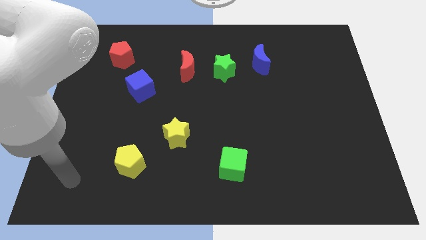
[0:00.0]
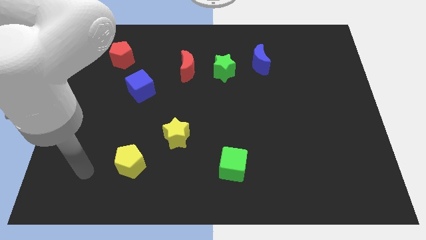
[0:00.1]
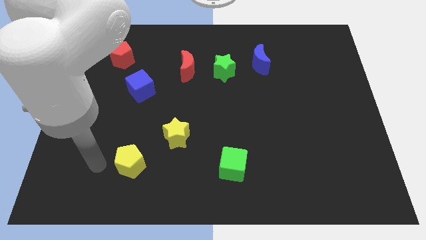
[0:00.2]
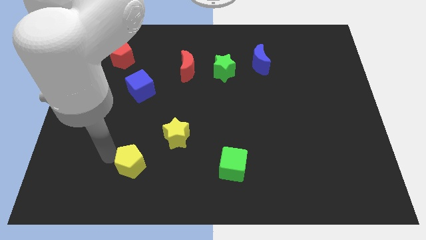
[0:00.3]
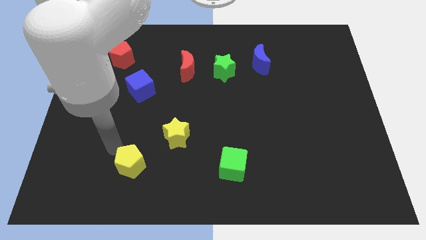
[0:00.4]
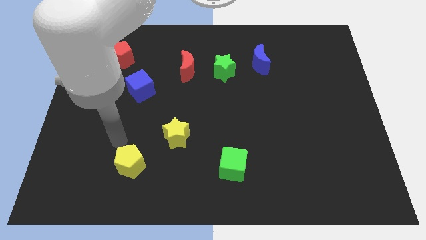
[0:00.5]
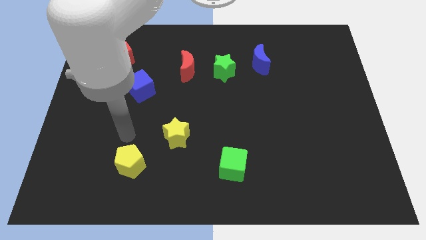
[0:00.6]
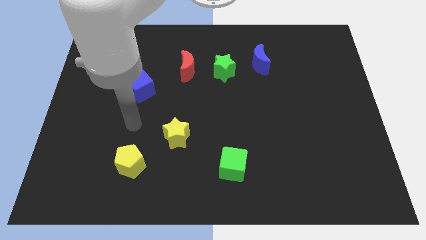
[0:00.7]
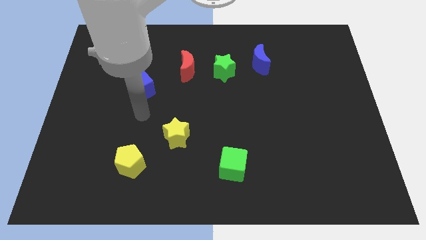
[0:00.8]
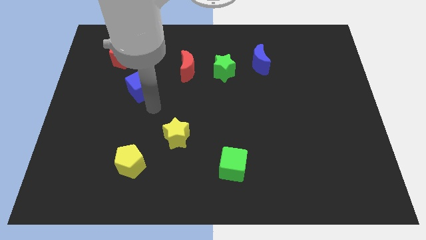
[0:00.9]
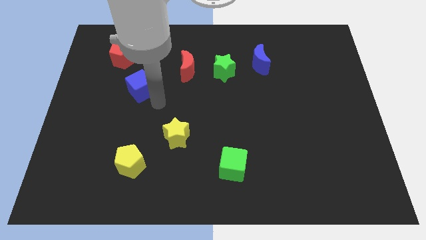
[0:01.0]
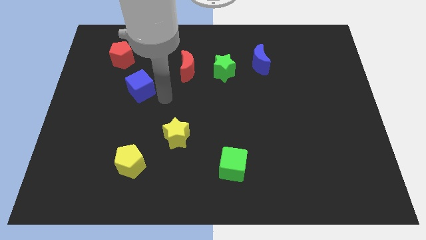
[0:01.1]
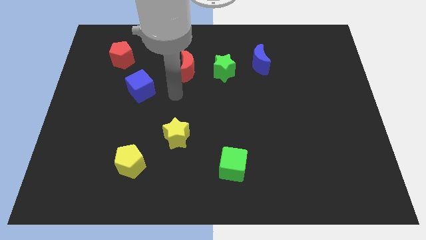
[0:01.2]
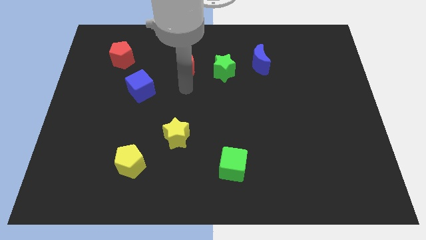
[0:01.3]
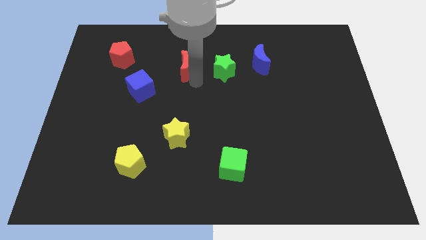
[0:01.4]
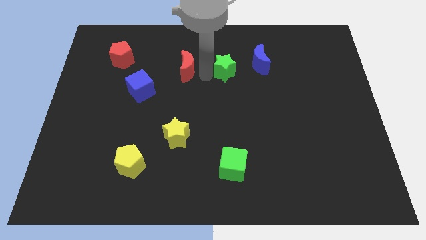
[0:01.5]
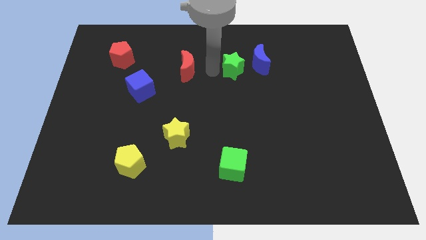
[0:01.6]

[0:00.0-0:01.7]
separate the red moon from the green star

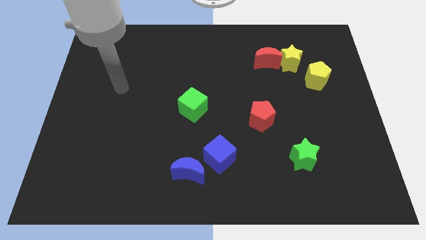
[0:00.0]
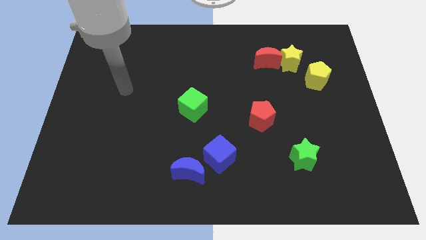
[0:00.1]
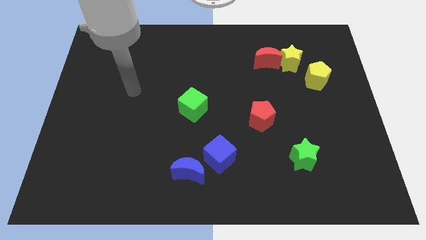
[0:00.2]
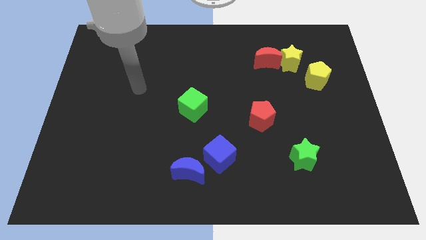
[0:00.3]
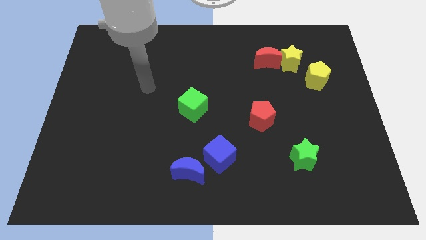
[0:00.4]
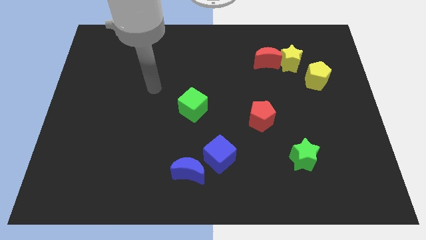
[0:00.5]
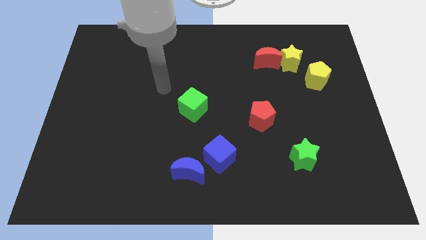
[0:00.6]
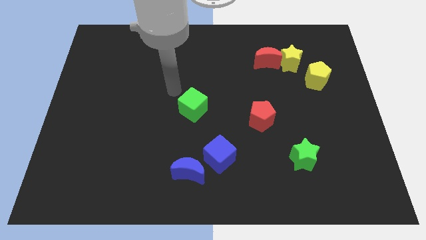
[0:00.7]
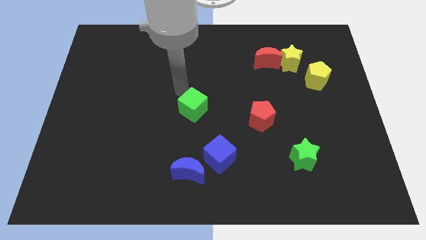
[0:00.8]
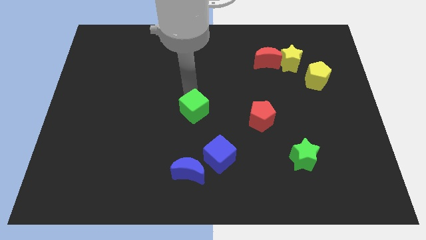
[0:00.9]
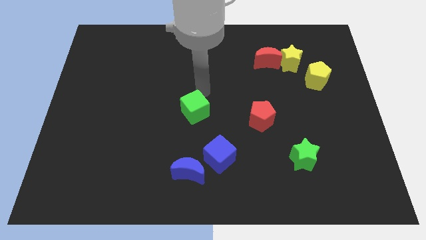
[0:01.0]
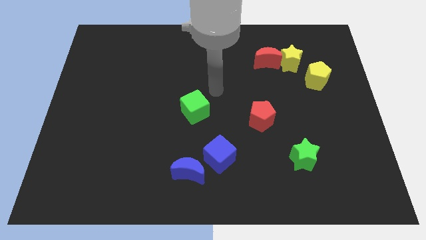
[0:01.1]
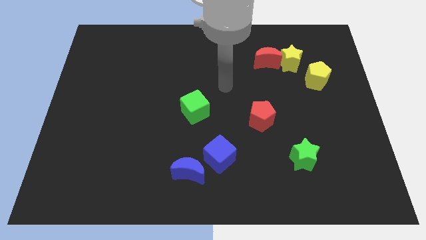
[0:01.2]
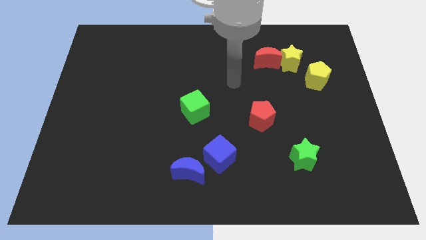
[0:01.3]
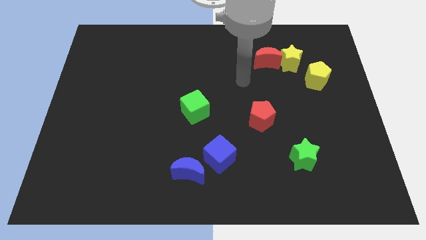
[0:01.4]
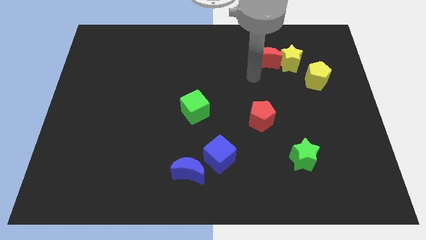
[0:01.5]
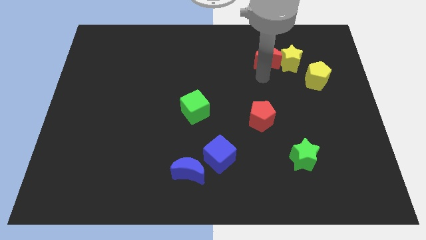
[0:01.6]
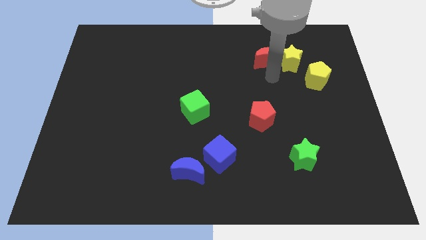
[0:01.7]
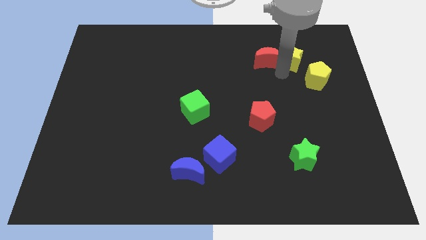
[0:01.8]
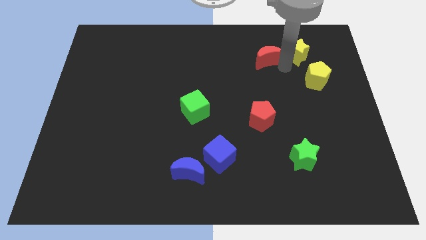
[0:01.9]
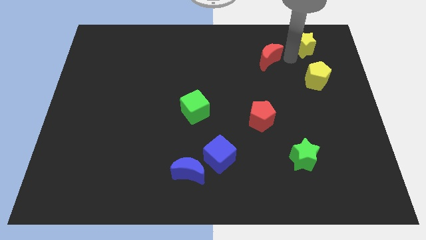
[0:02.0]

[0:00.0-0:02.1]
move the red moon away from the yellow star

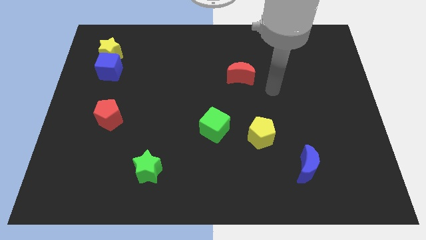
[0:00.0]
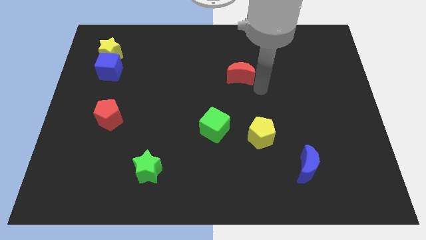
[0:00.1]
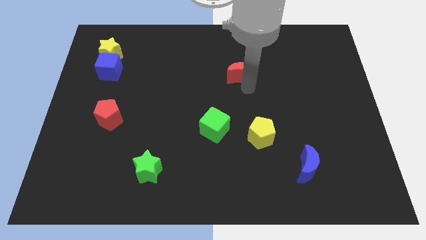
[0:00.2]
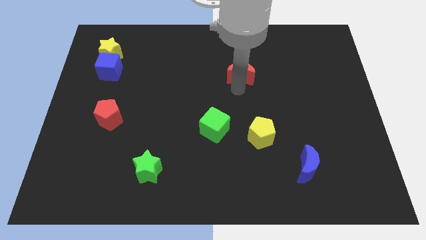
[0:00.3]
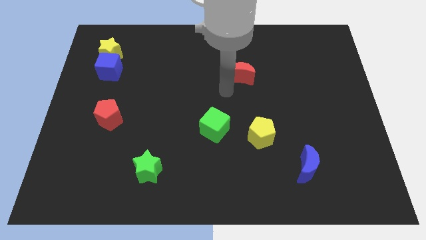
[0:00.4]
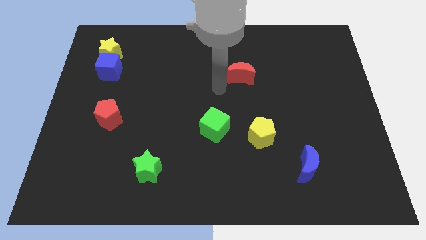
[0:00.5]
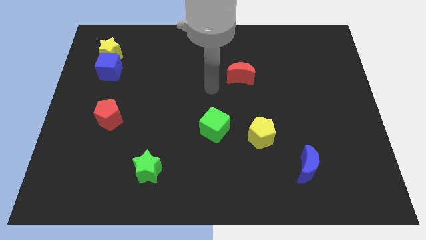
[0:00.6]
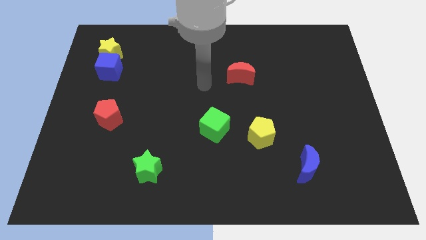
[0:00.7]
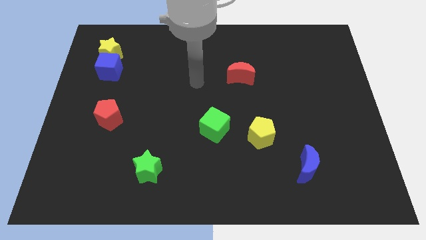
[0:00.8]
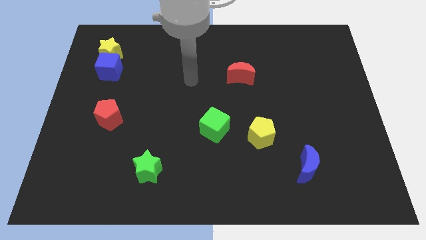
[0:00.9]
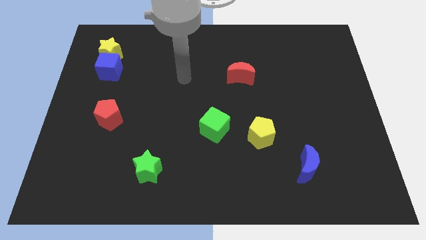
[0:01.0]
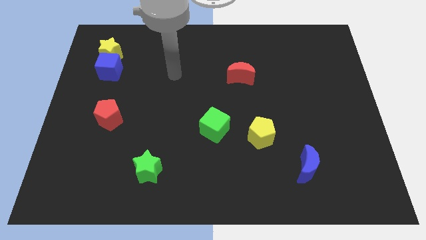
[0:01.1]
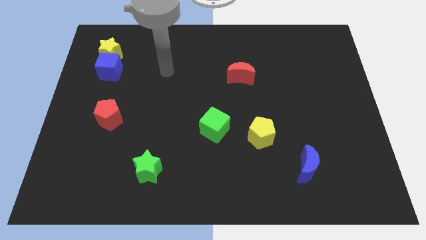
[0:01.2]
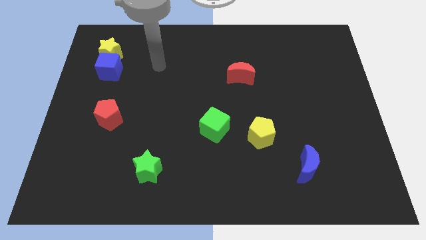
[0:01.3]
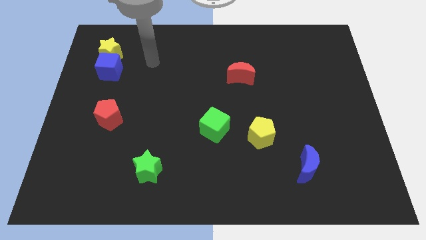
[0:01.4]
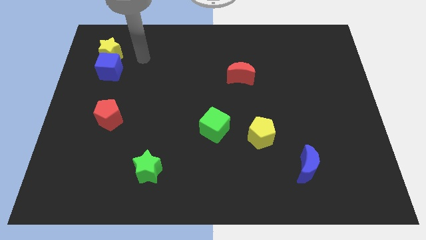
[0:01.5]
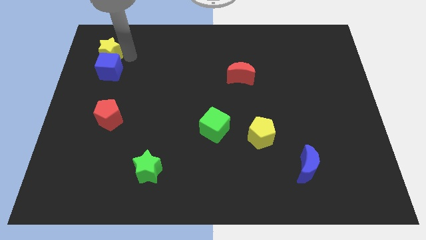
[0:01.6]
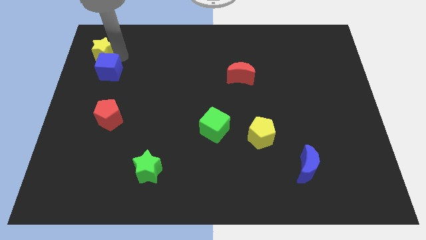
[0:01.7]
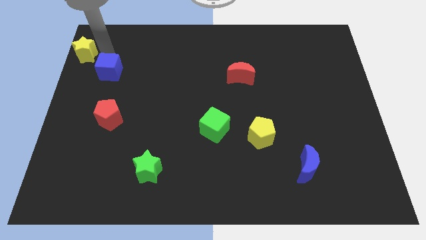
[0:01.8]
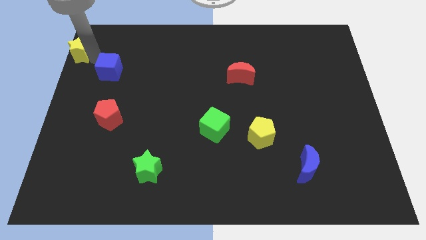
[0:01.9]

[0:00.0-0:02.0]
pull the blue cube apart from the yellow star

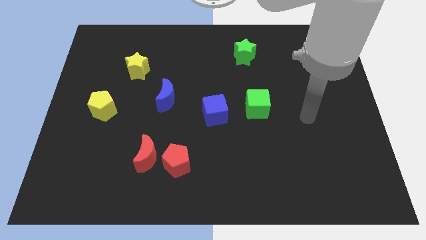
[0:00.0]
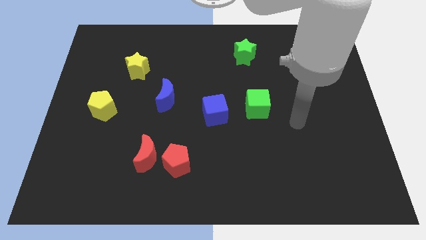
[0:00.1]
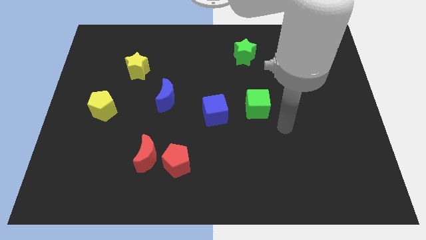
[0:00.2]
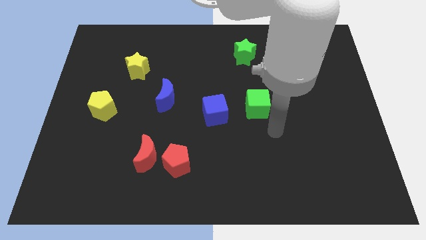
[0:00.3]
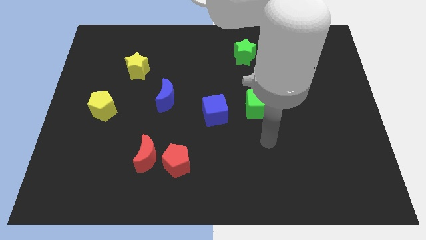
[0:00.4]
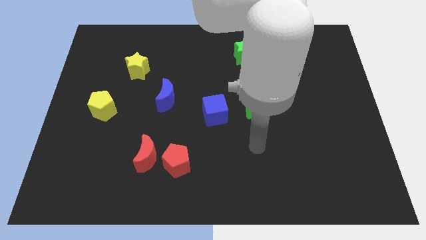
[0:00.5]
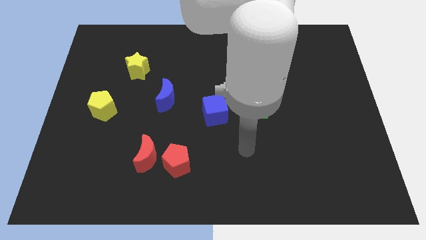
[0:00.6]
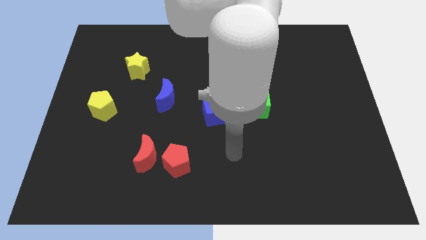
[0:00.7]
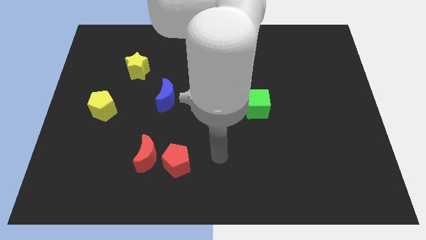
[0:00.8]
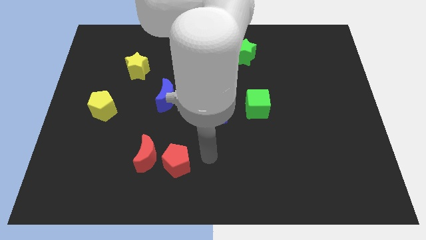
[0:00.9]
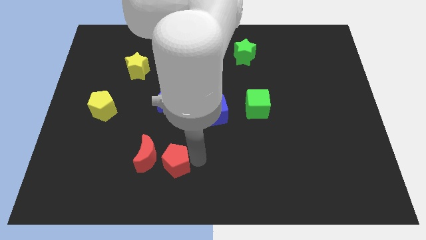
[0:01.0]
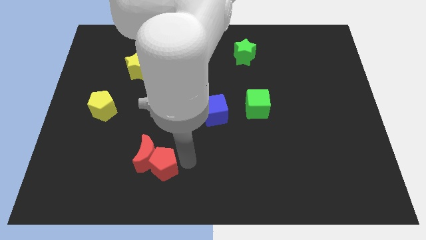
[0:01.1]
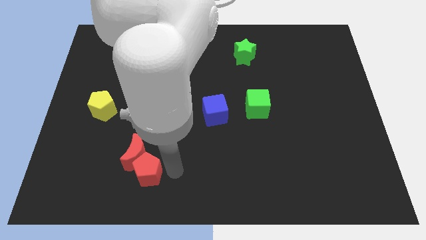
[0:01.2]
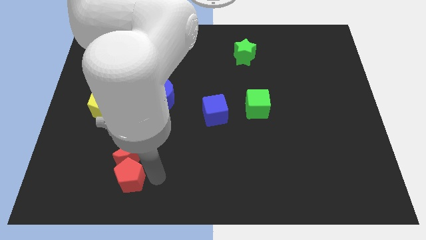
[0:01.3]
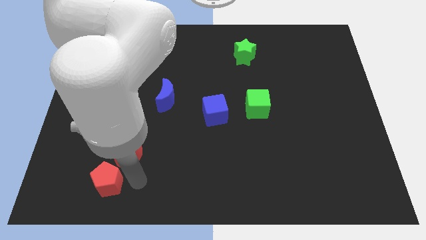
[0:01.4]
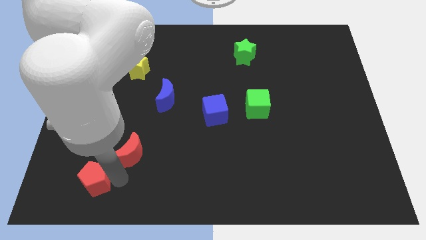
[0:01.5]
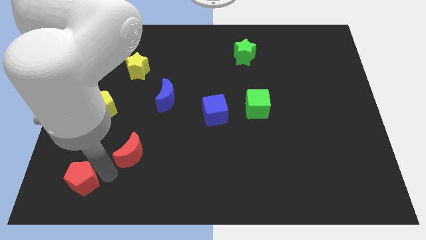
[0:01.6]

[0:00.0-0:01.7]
separate the red moon from the red pentagon

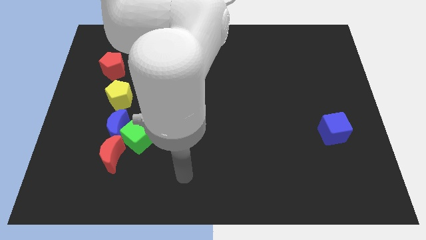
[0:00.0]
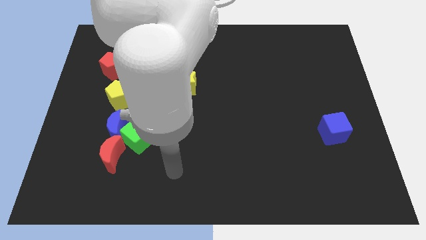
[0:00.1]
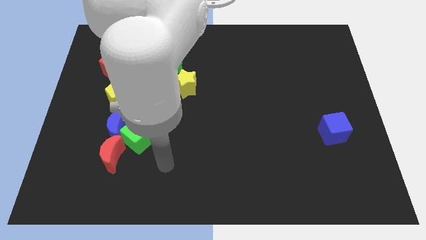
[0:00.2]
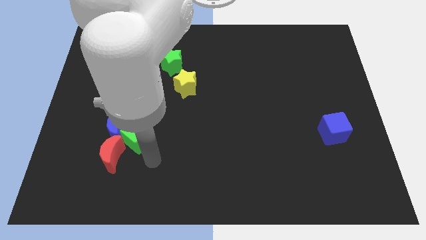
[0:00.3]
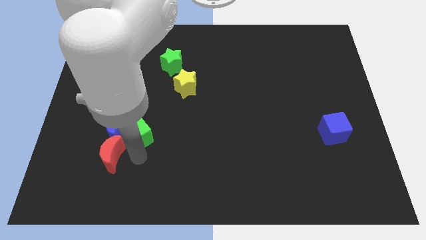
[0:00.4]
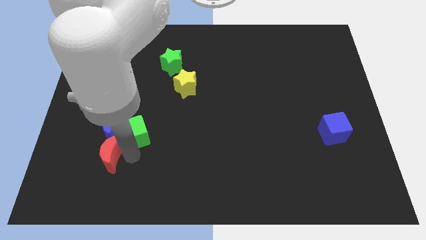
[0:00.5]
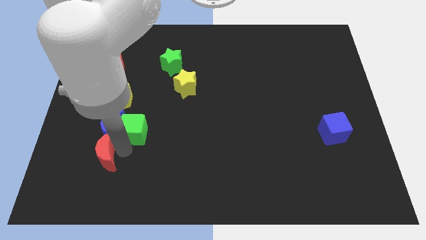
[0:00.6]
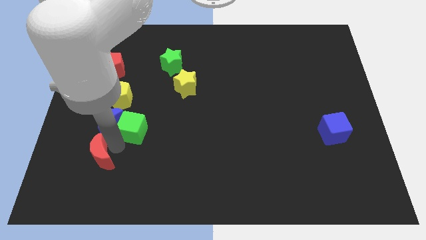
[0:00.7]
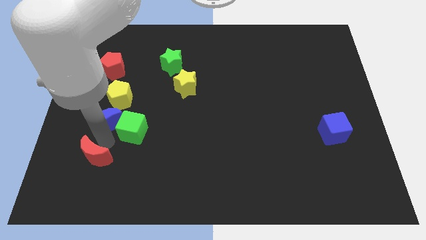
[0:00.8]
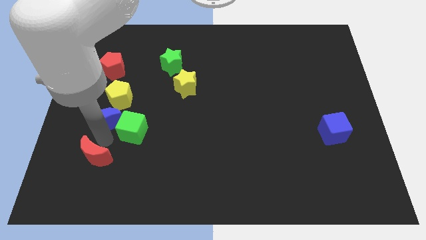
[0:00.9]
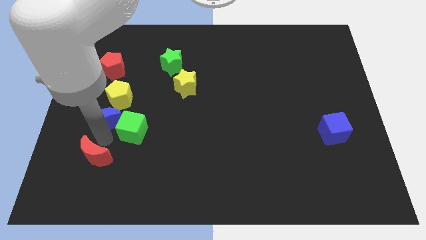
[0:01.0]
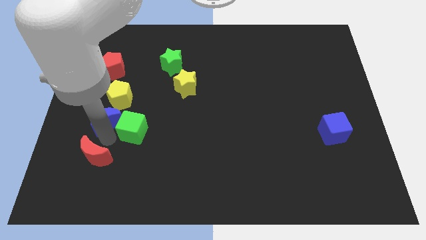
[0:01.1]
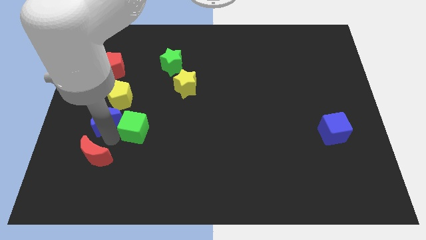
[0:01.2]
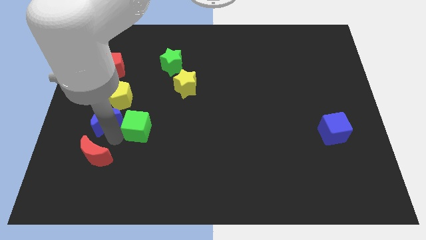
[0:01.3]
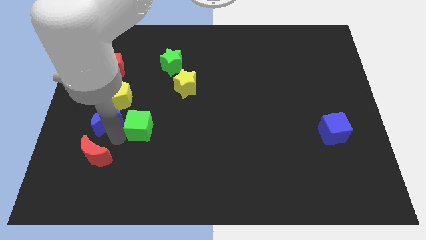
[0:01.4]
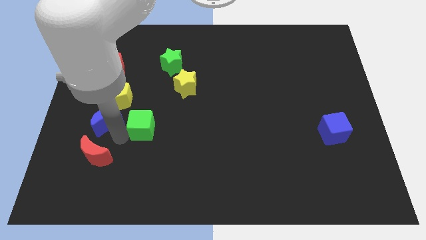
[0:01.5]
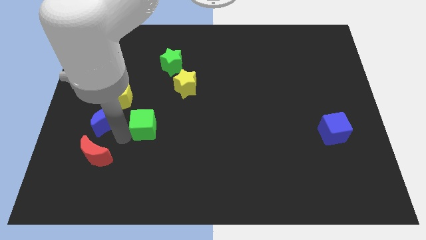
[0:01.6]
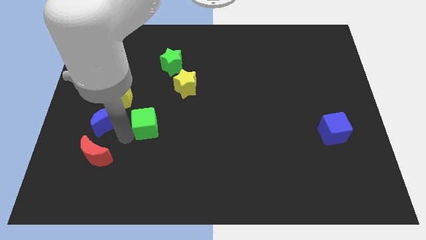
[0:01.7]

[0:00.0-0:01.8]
move the green cube away from the blue moon and red moon
